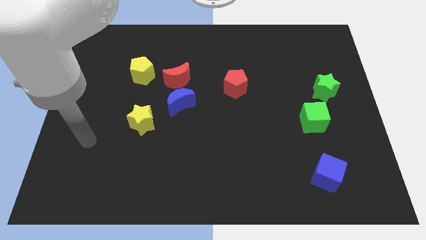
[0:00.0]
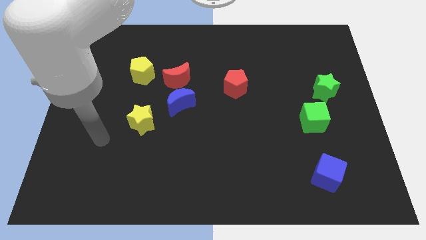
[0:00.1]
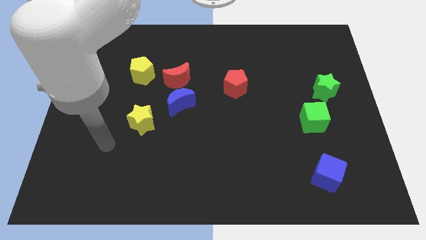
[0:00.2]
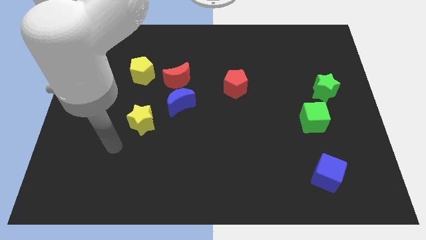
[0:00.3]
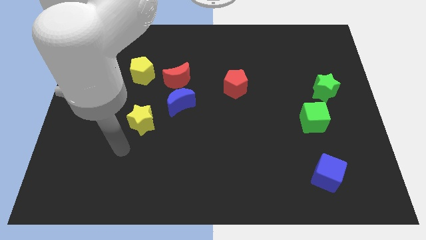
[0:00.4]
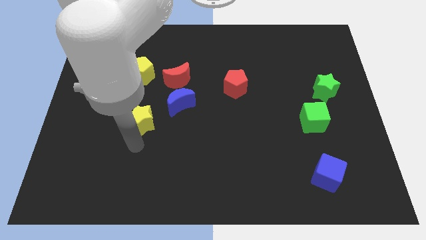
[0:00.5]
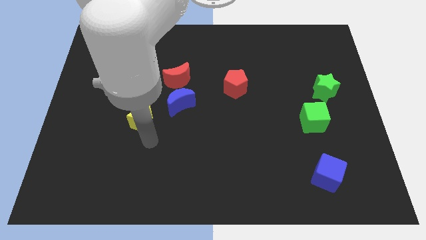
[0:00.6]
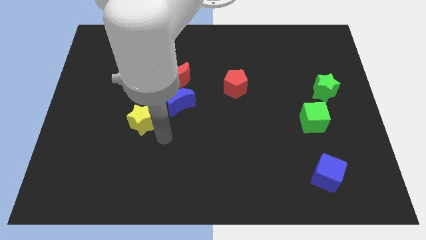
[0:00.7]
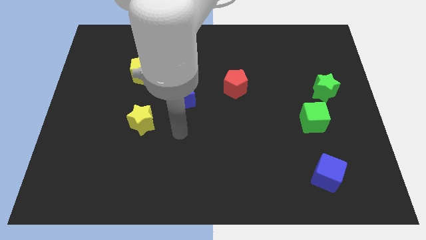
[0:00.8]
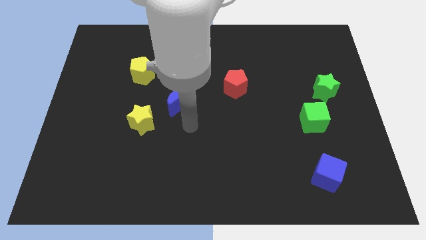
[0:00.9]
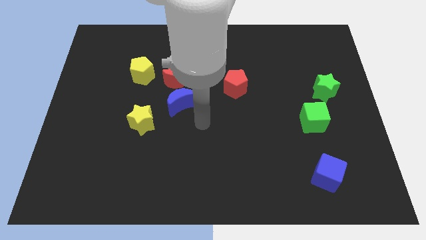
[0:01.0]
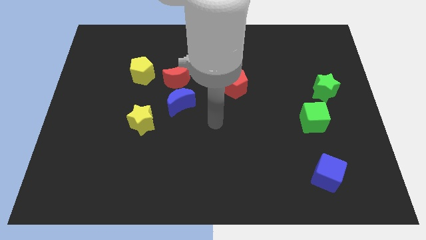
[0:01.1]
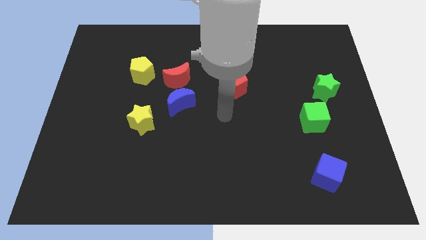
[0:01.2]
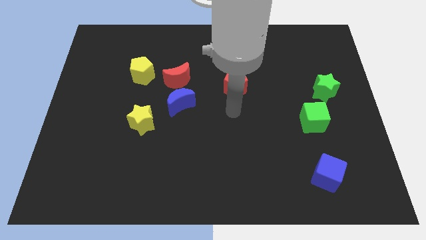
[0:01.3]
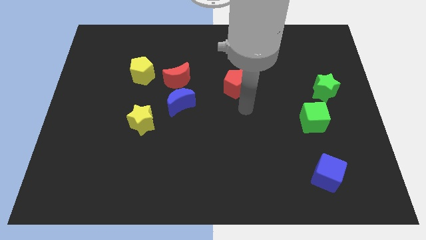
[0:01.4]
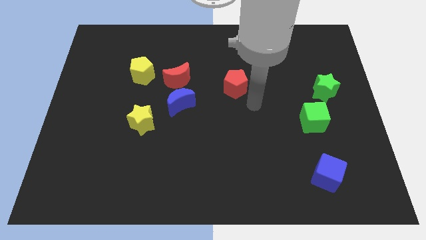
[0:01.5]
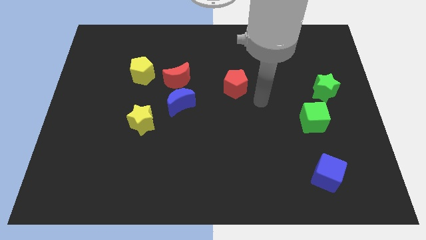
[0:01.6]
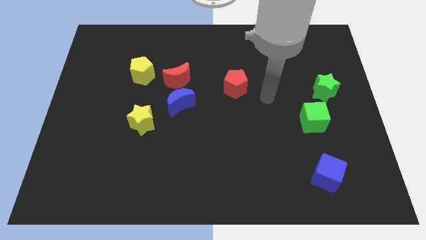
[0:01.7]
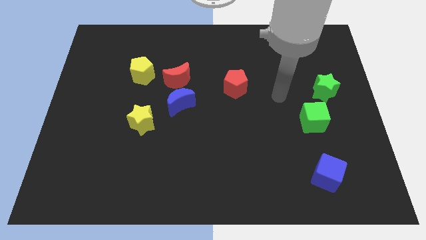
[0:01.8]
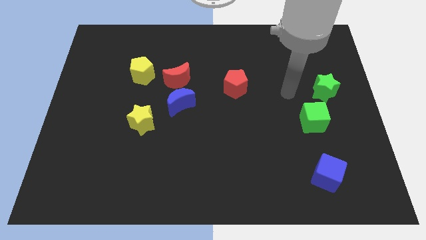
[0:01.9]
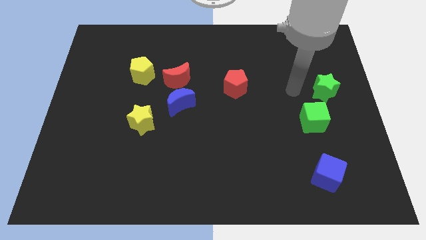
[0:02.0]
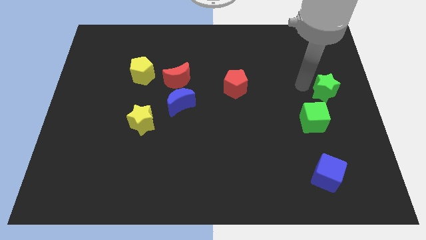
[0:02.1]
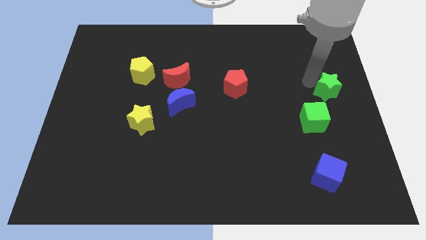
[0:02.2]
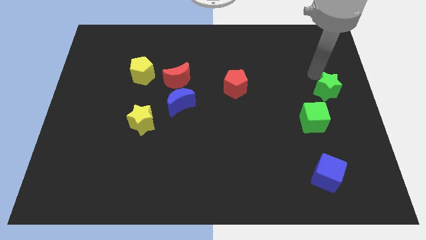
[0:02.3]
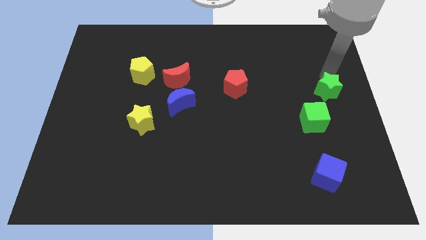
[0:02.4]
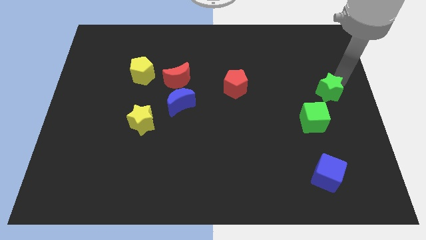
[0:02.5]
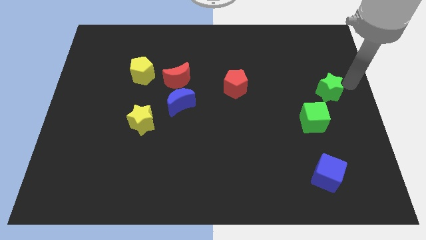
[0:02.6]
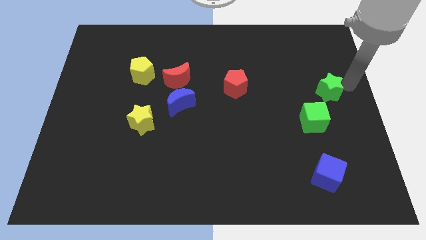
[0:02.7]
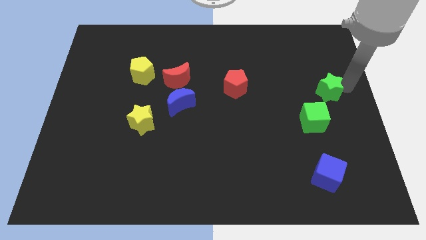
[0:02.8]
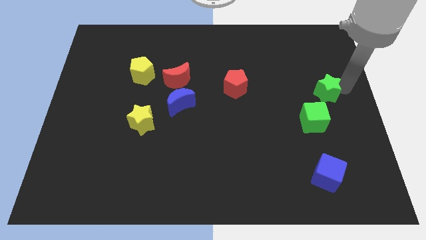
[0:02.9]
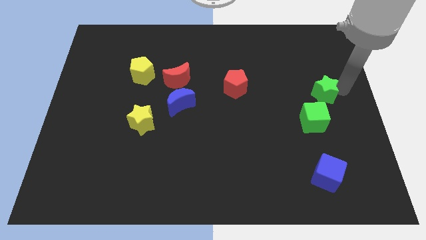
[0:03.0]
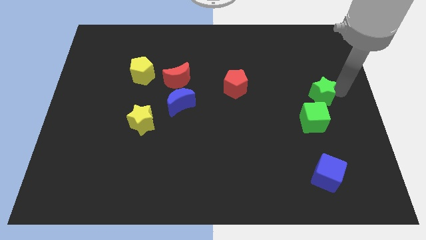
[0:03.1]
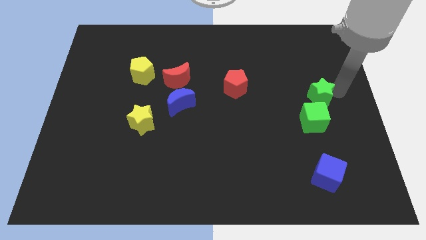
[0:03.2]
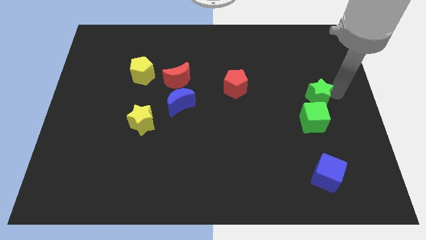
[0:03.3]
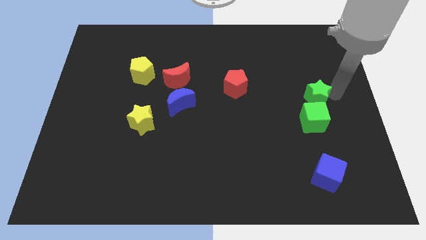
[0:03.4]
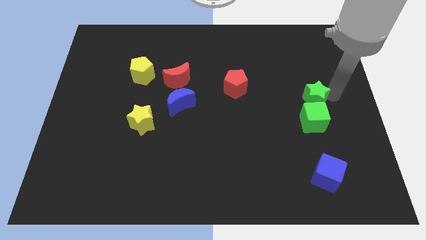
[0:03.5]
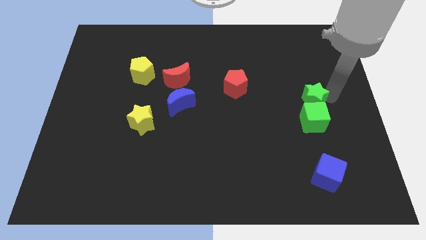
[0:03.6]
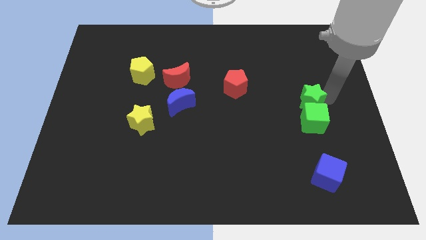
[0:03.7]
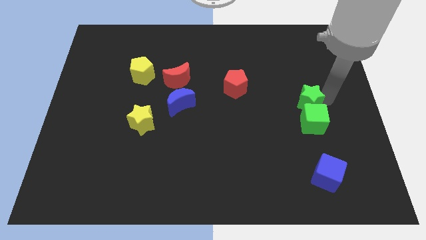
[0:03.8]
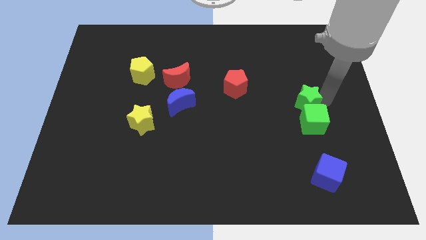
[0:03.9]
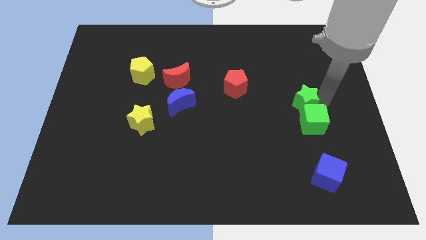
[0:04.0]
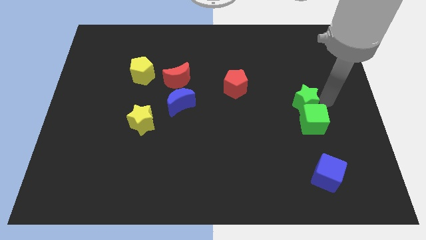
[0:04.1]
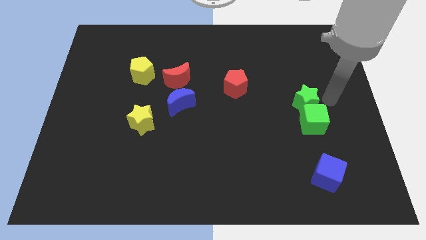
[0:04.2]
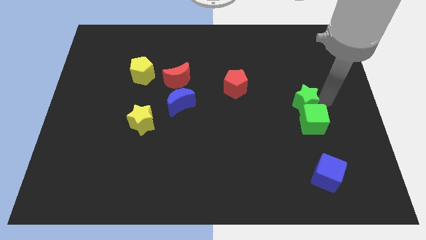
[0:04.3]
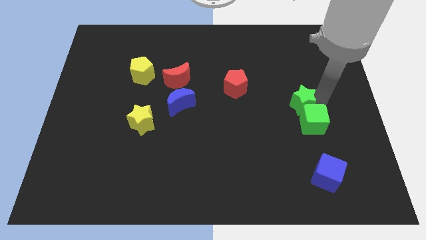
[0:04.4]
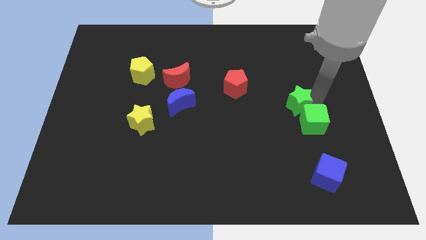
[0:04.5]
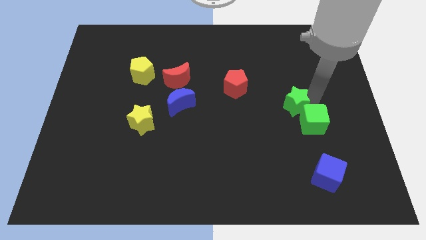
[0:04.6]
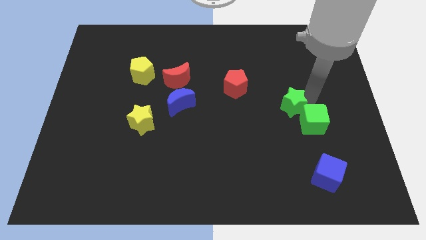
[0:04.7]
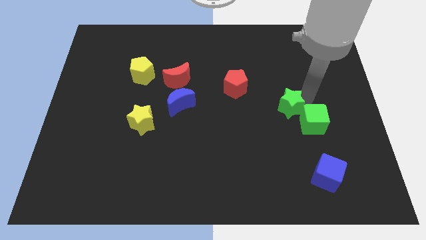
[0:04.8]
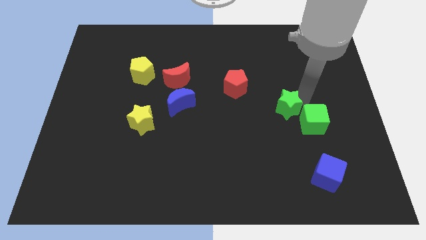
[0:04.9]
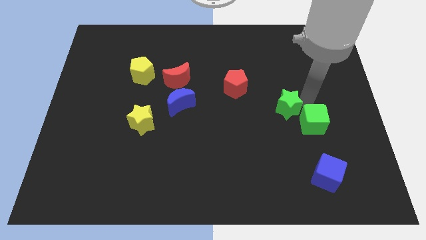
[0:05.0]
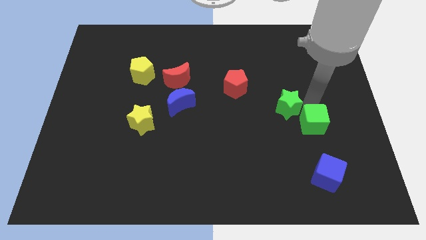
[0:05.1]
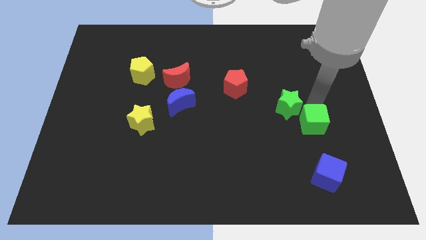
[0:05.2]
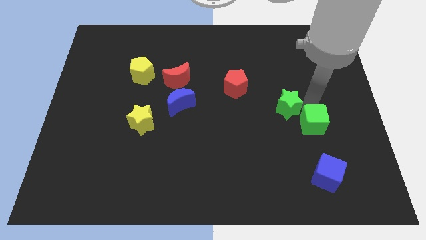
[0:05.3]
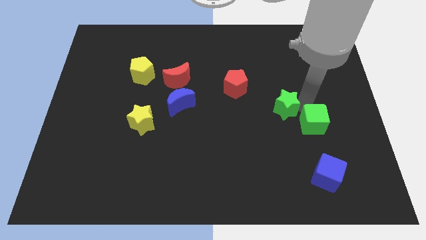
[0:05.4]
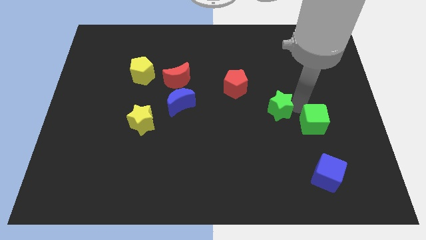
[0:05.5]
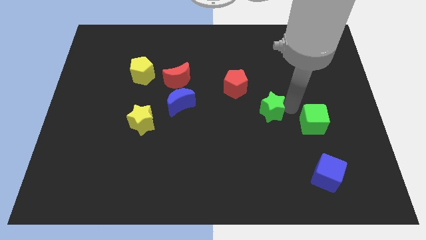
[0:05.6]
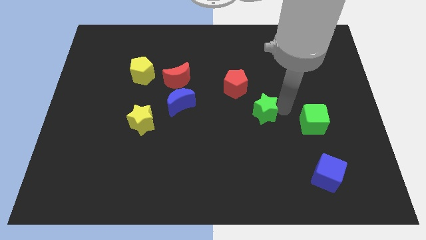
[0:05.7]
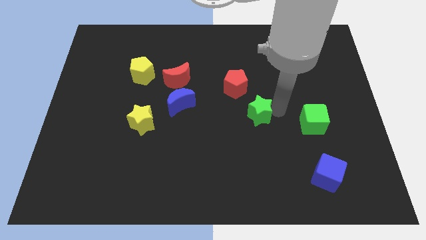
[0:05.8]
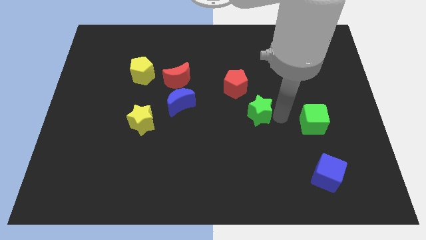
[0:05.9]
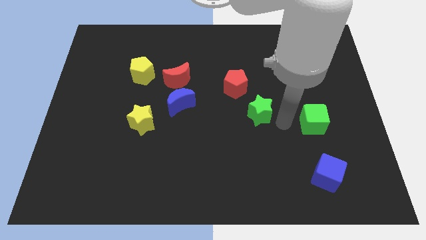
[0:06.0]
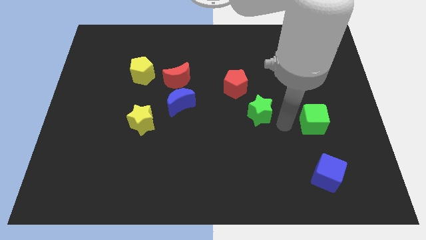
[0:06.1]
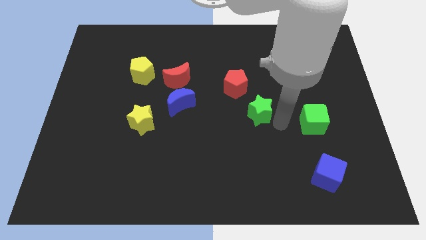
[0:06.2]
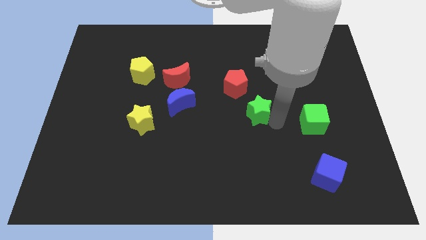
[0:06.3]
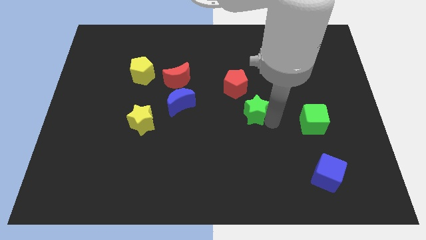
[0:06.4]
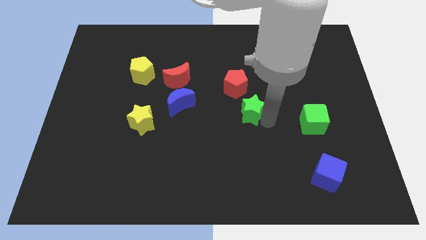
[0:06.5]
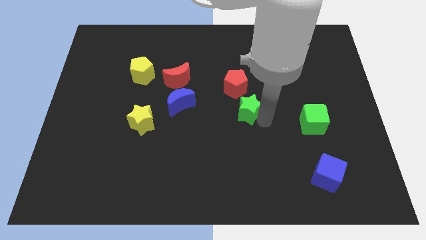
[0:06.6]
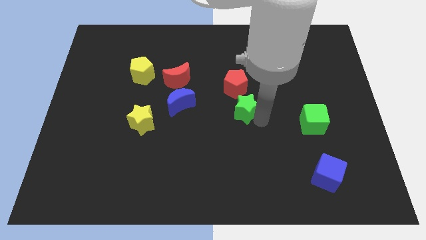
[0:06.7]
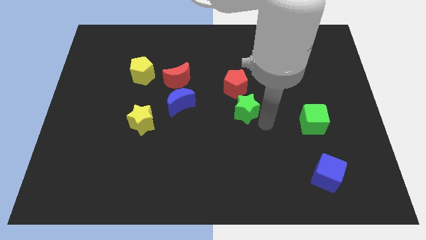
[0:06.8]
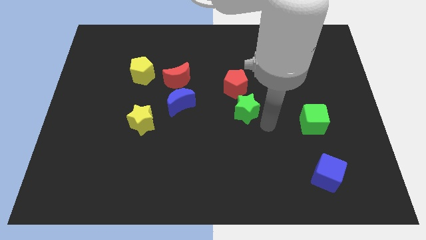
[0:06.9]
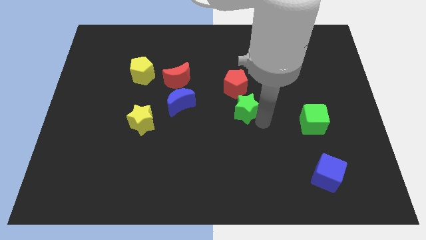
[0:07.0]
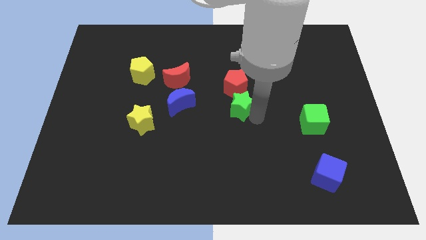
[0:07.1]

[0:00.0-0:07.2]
push the green star left

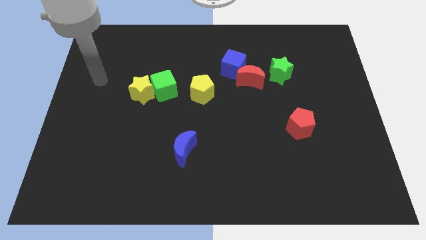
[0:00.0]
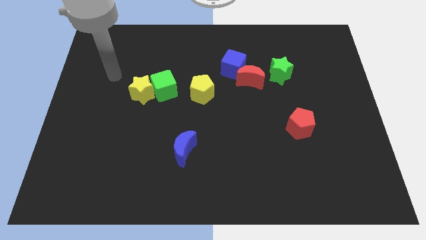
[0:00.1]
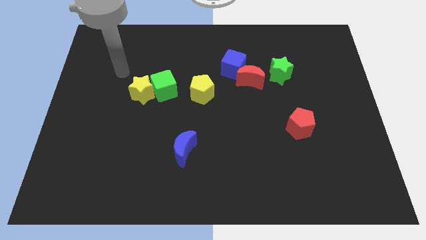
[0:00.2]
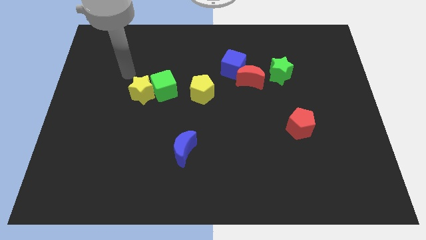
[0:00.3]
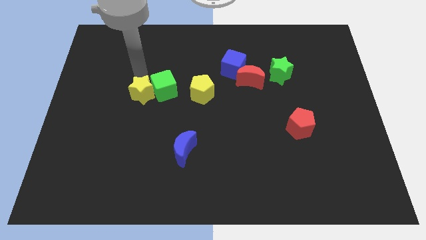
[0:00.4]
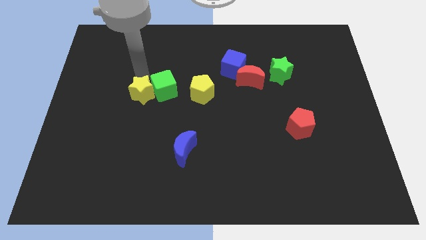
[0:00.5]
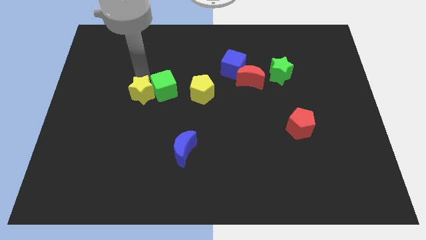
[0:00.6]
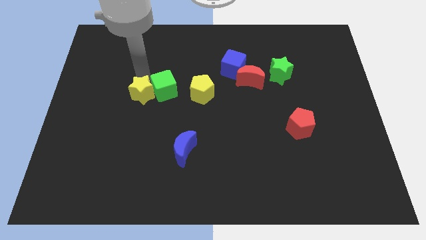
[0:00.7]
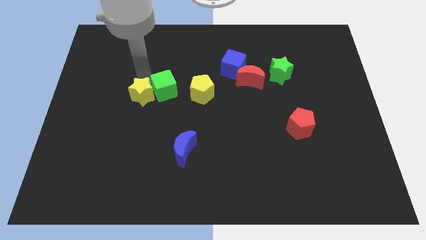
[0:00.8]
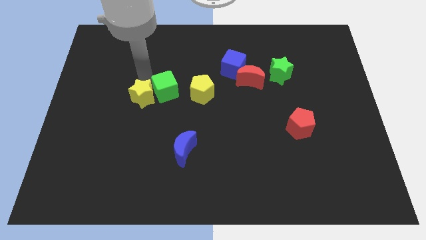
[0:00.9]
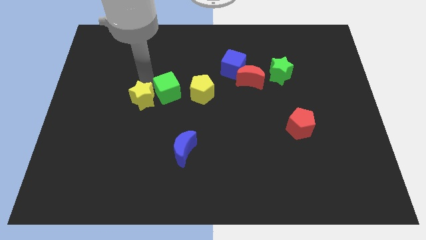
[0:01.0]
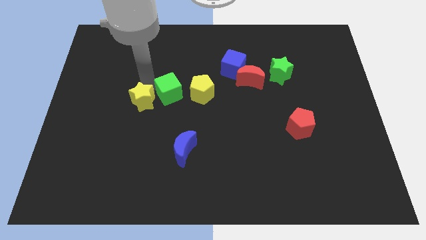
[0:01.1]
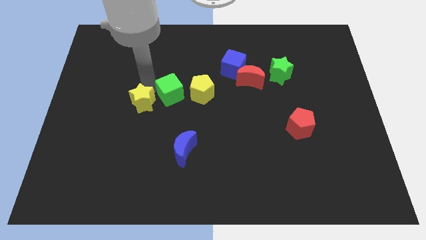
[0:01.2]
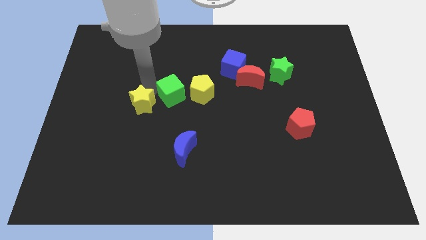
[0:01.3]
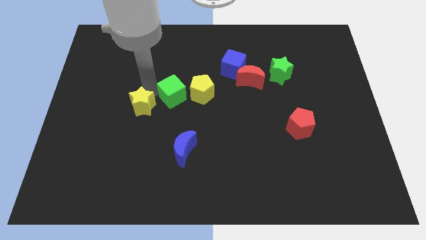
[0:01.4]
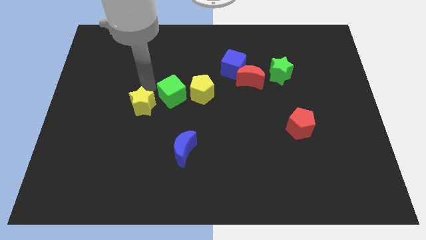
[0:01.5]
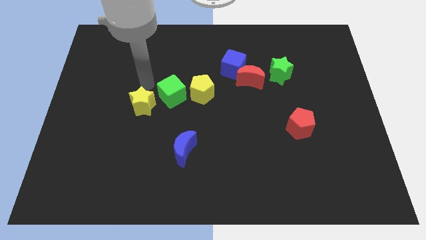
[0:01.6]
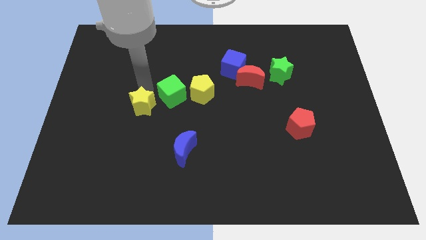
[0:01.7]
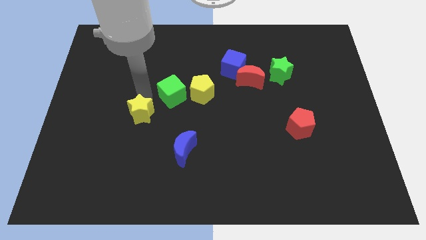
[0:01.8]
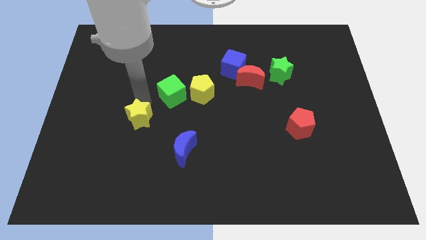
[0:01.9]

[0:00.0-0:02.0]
slightly push the yellow star down
